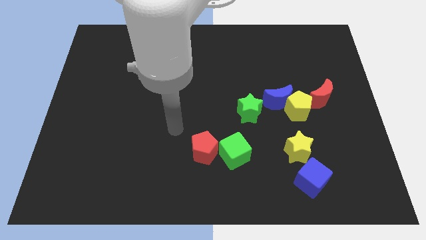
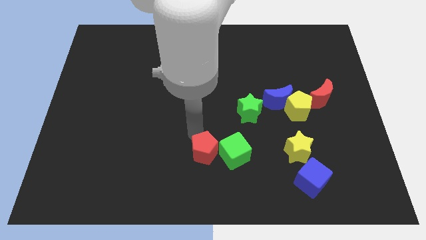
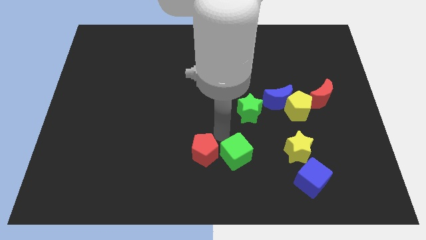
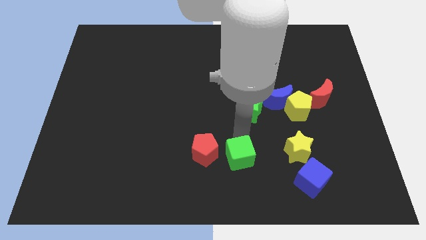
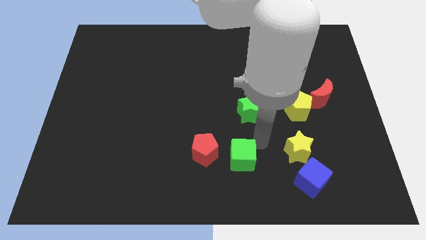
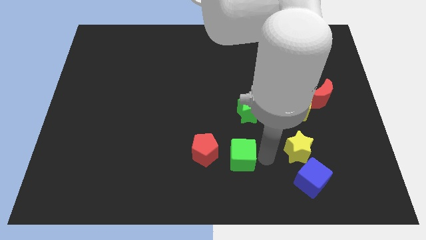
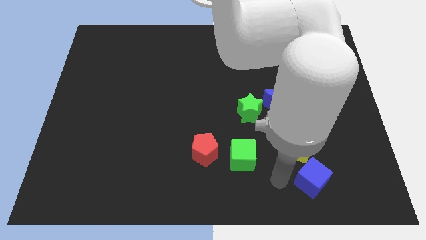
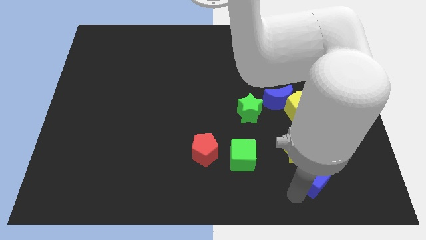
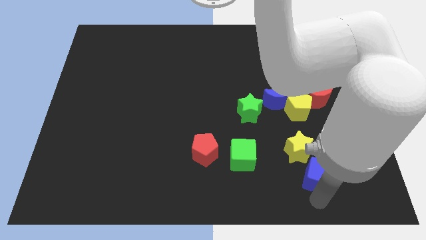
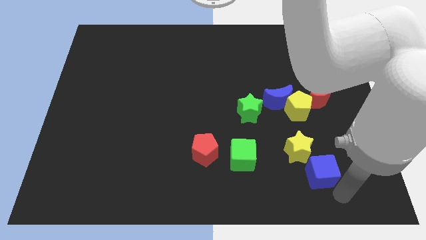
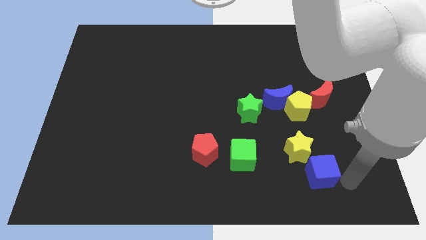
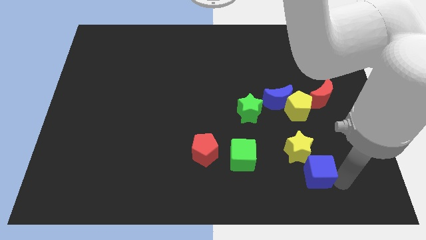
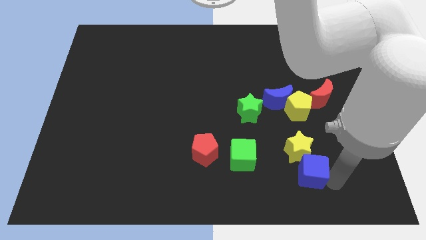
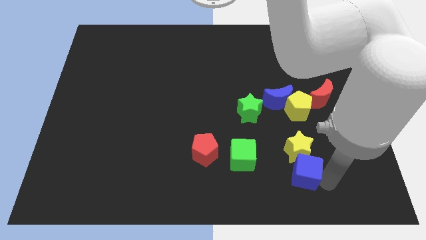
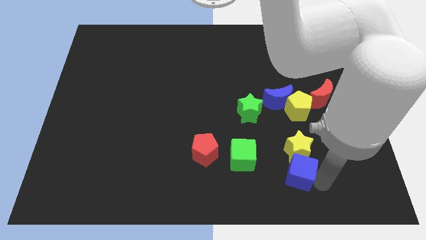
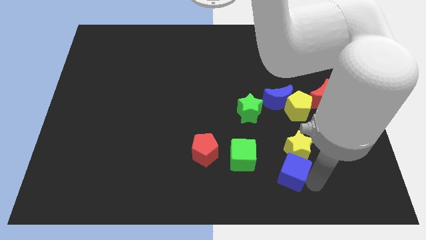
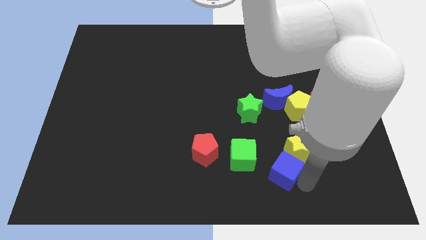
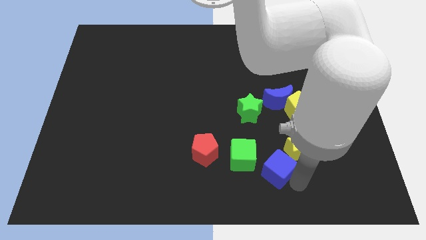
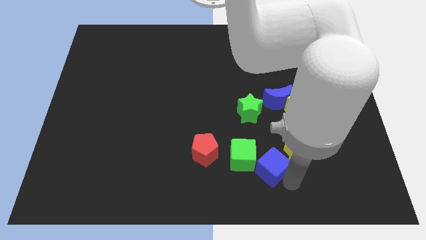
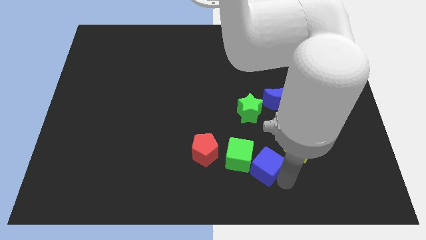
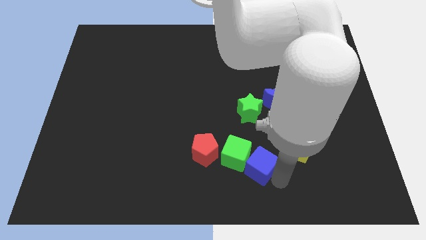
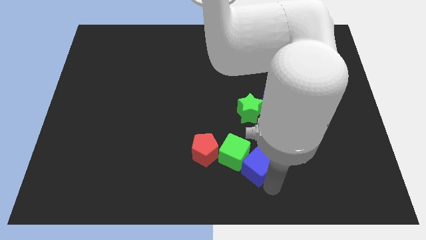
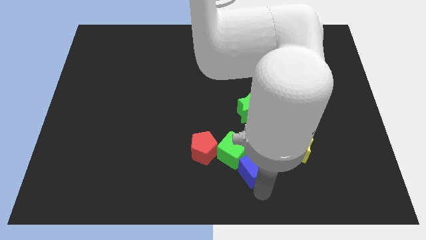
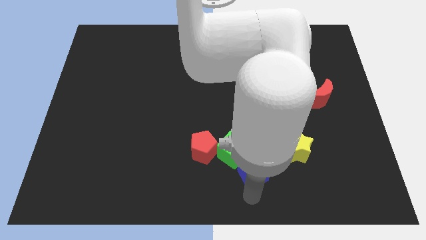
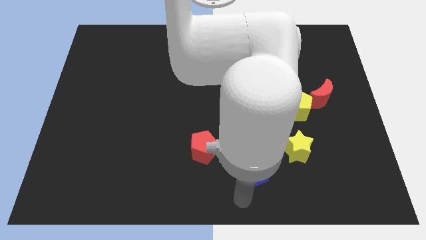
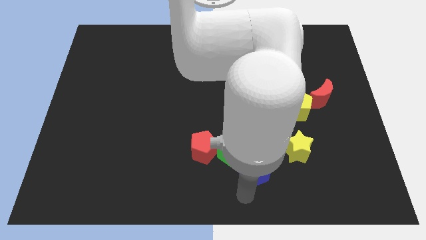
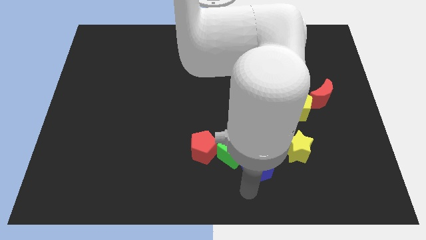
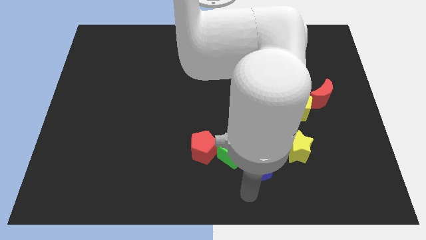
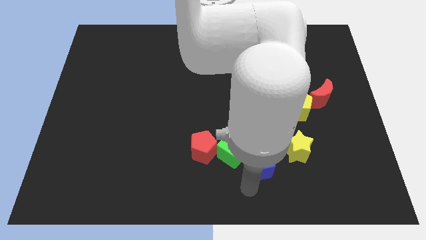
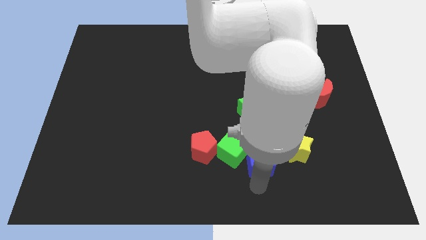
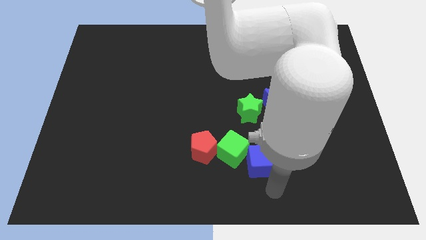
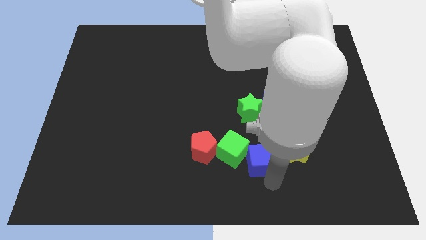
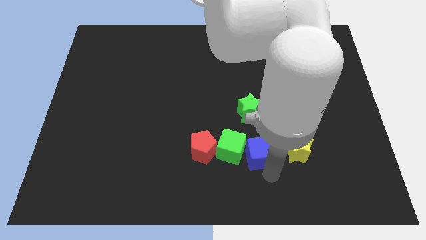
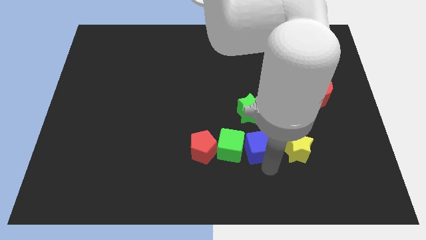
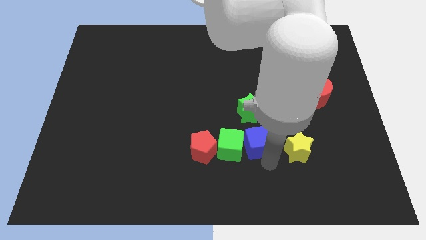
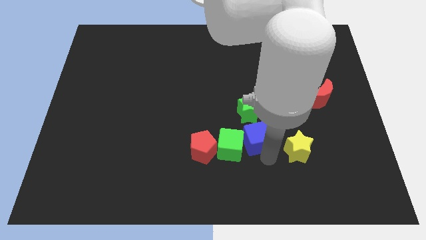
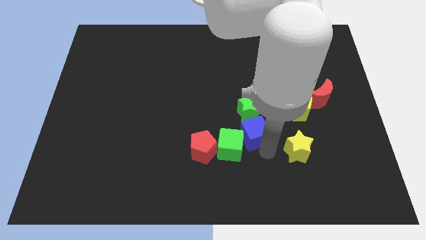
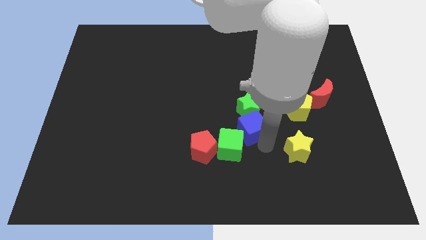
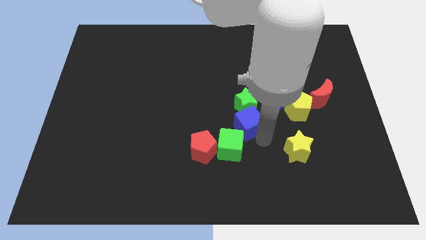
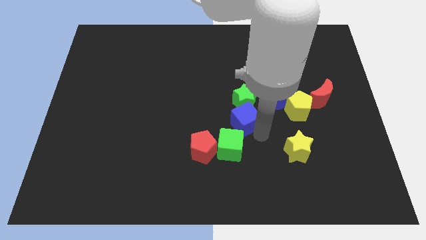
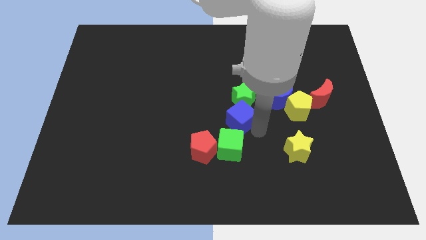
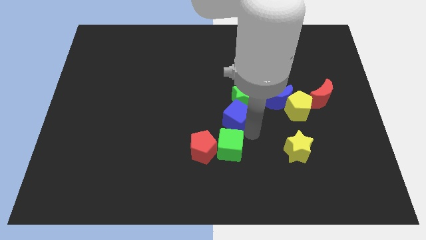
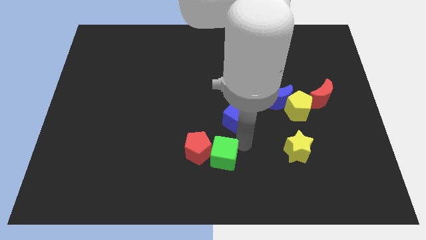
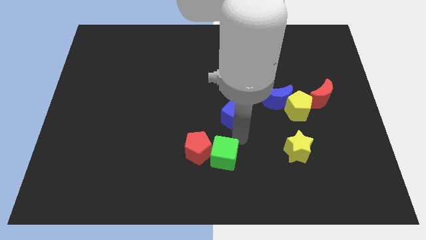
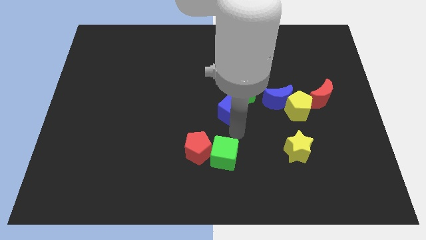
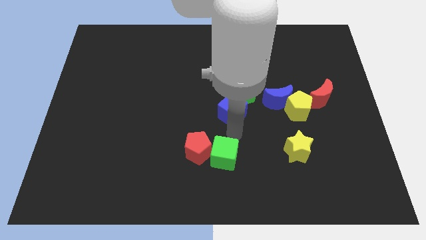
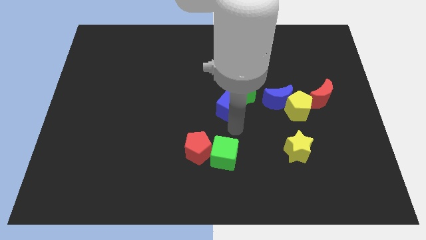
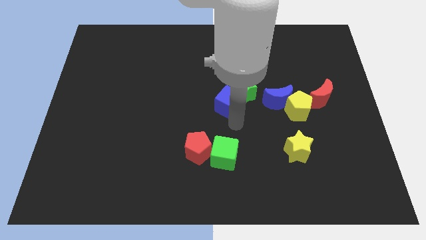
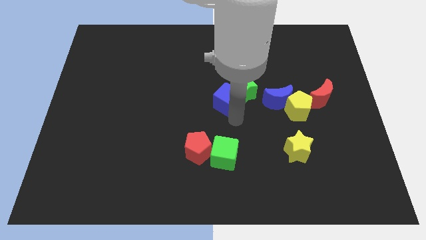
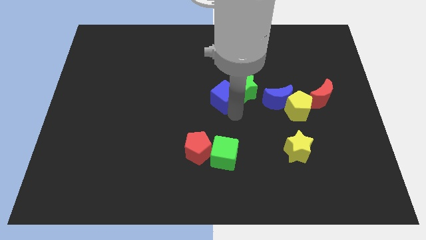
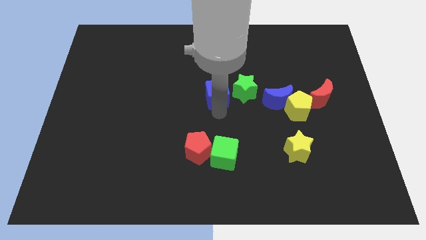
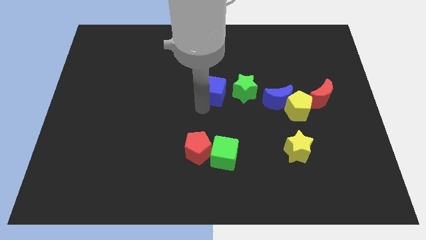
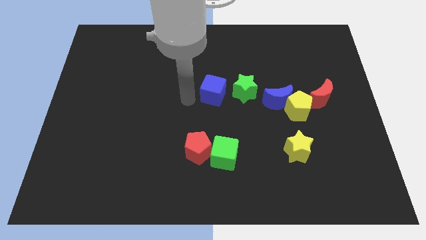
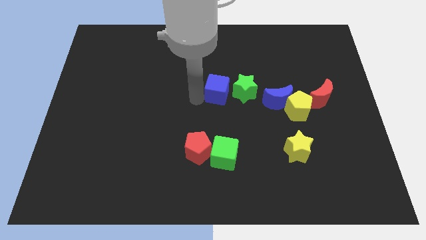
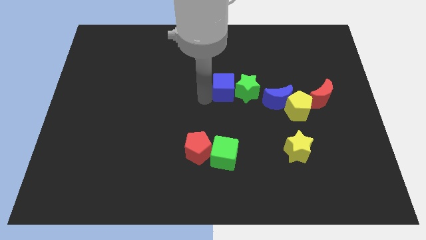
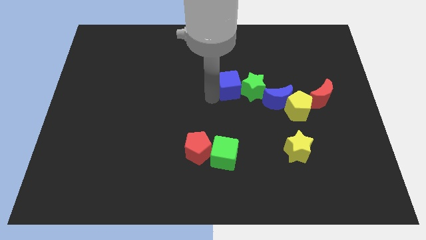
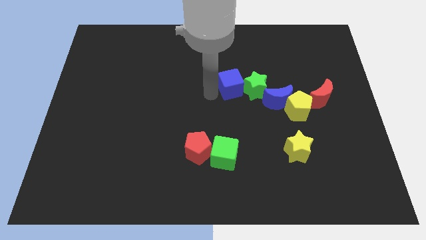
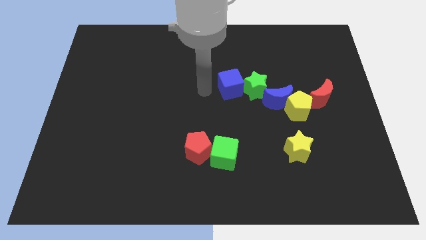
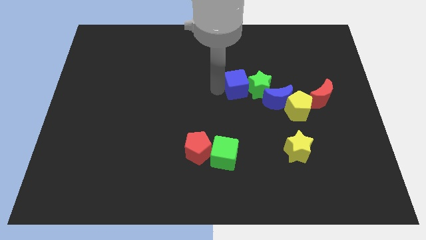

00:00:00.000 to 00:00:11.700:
move the blue cube diagonally up and to the left of the blue moon

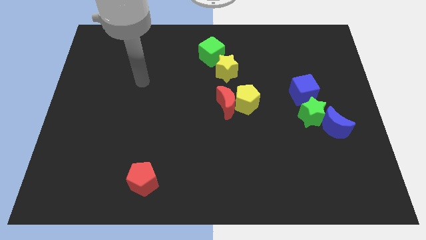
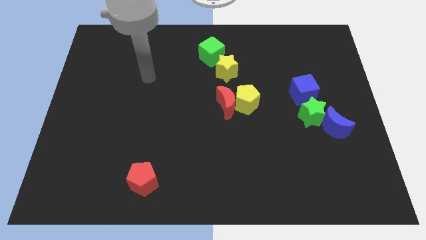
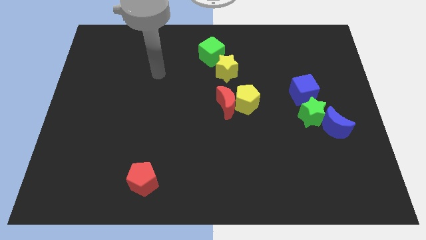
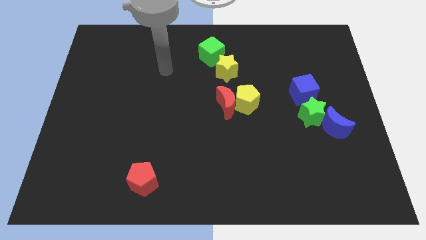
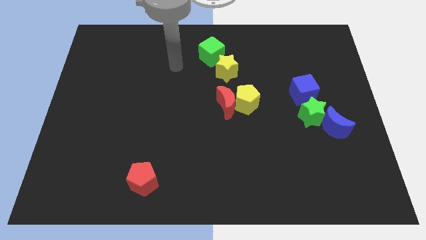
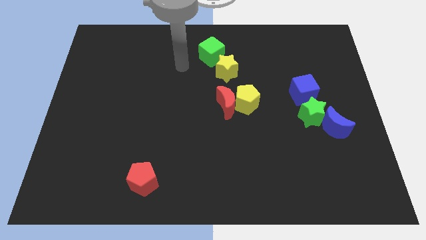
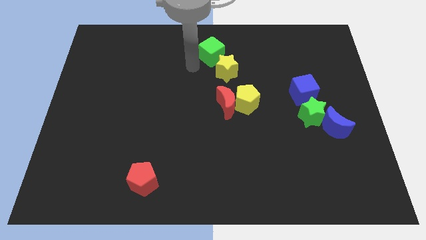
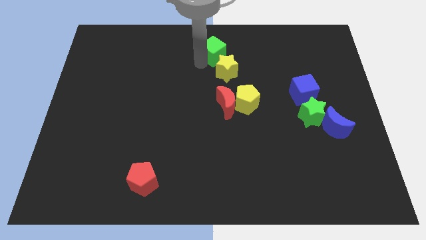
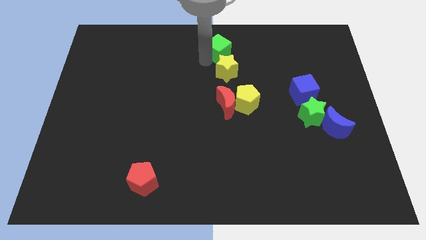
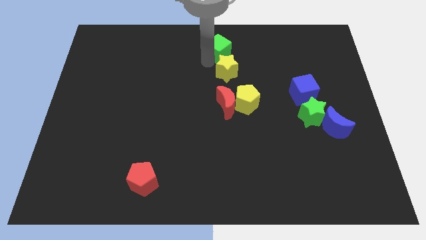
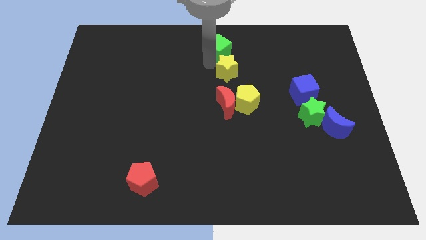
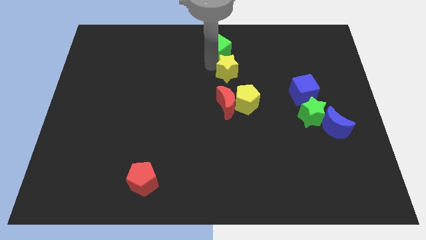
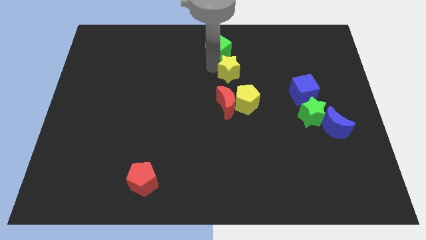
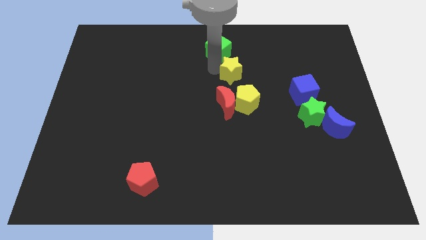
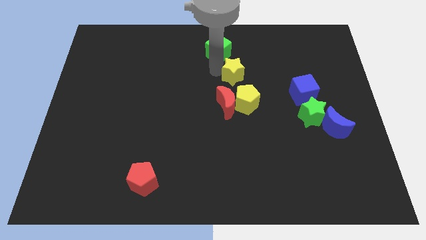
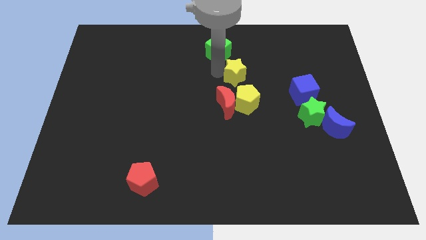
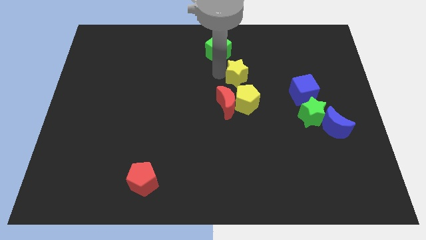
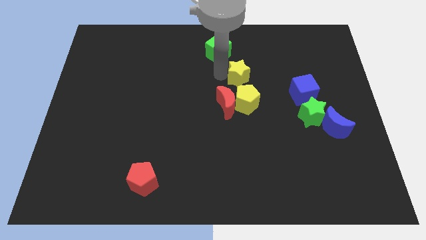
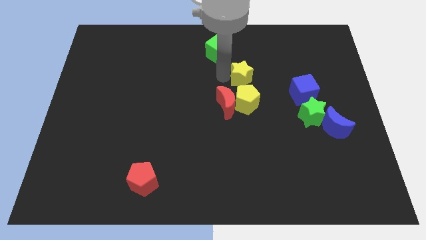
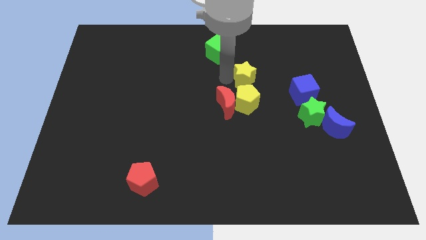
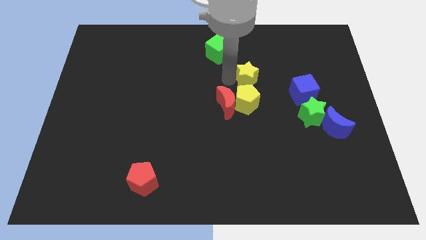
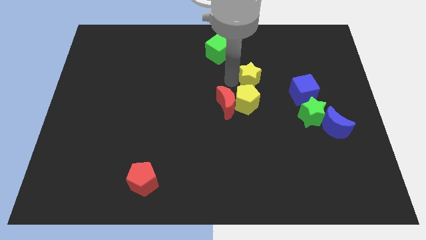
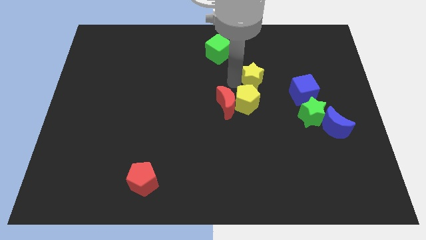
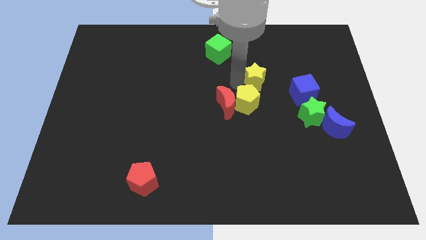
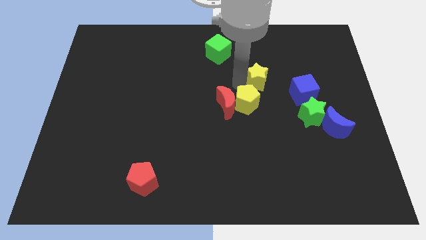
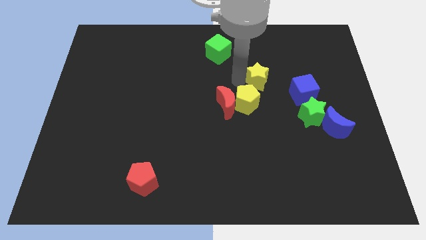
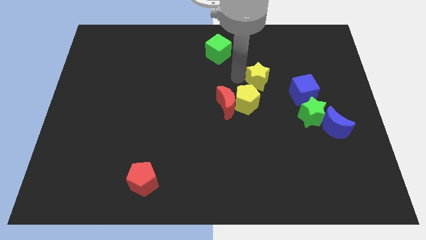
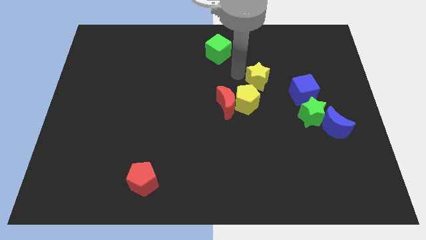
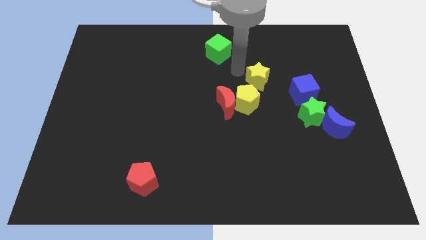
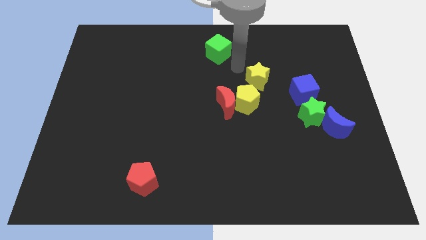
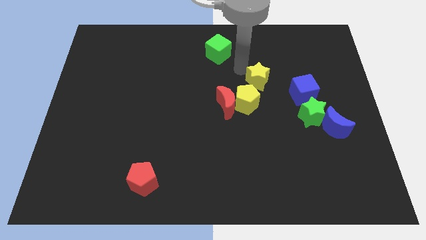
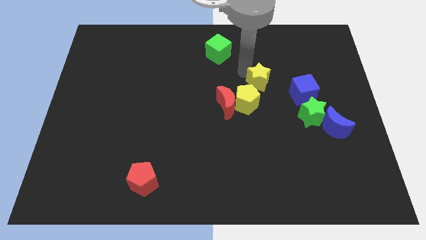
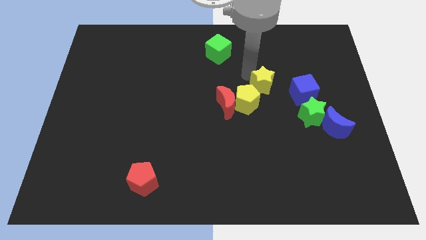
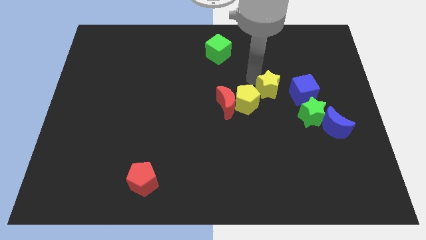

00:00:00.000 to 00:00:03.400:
move the yellow star to the top left of the green star
